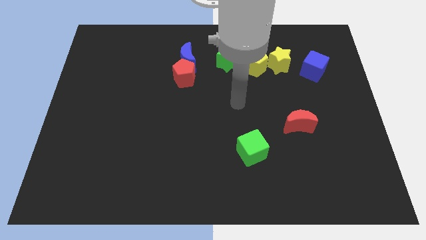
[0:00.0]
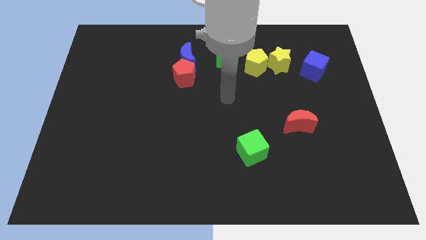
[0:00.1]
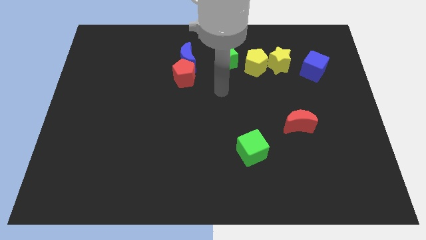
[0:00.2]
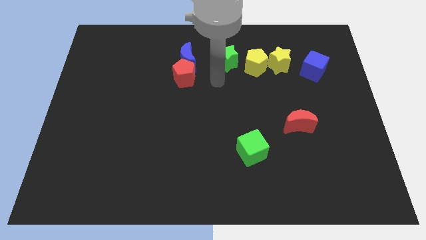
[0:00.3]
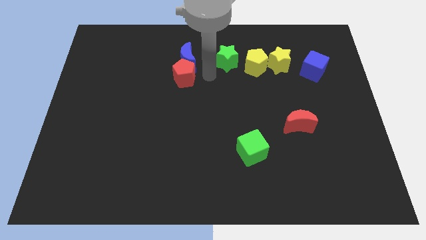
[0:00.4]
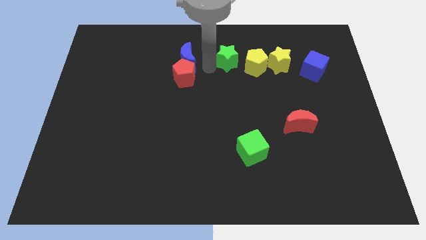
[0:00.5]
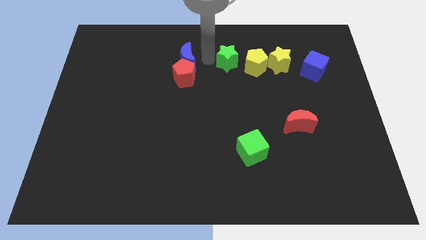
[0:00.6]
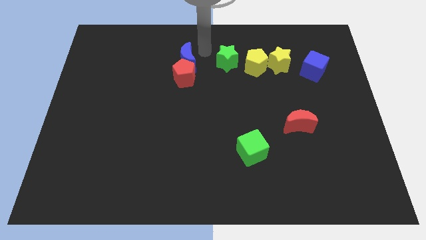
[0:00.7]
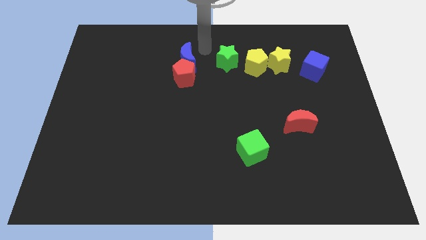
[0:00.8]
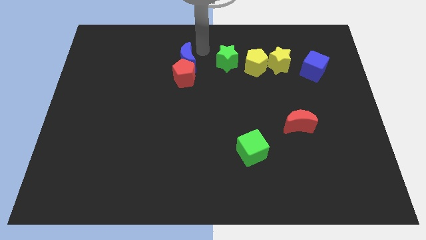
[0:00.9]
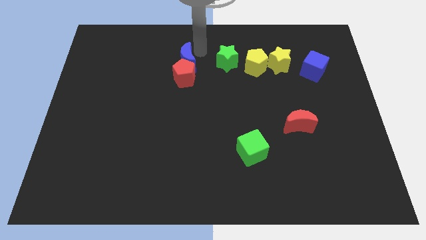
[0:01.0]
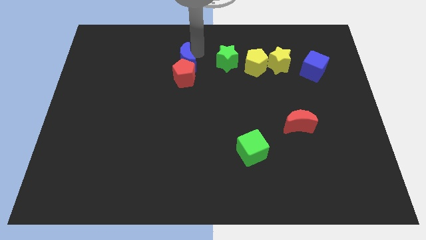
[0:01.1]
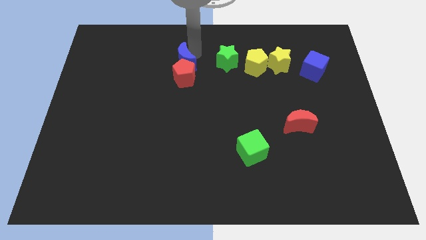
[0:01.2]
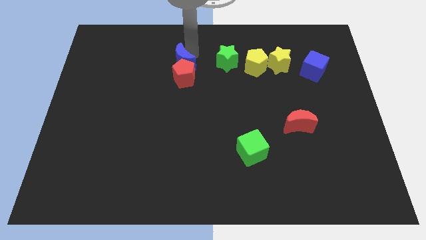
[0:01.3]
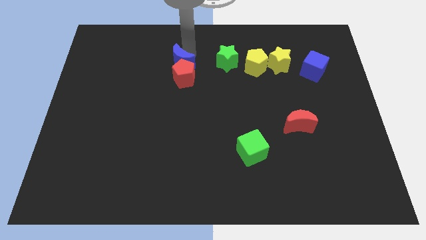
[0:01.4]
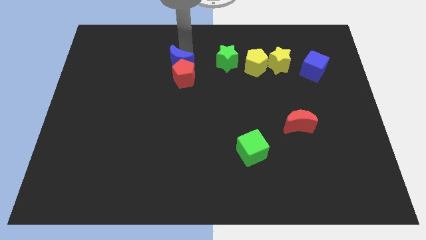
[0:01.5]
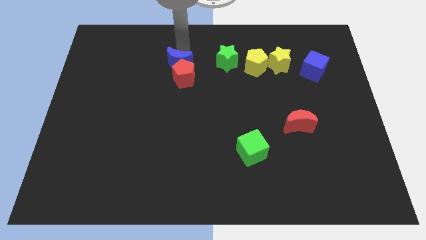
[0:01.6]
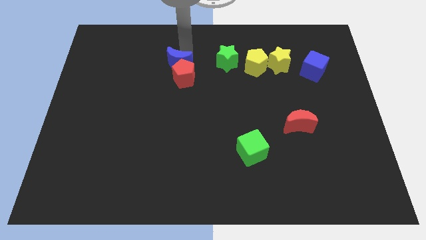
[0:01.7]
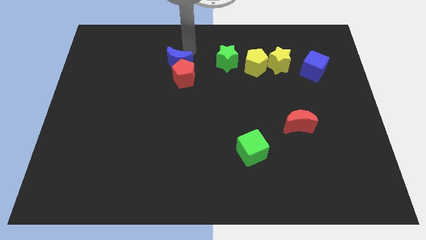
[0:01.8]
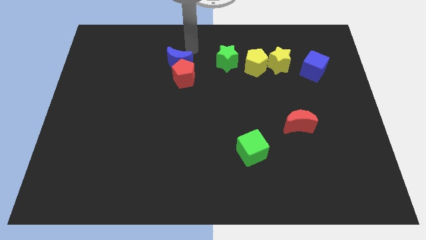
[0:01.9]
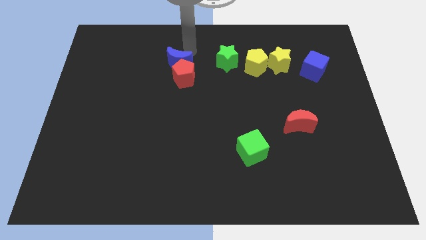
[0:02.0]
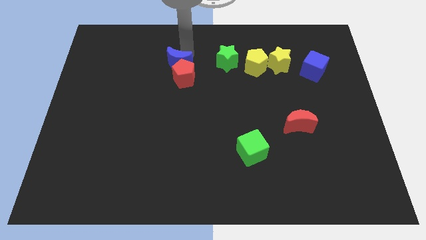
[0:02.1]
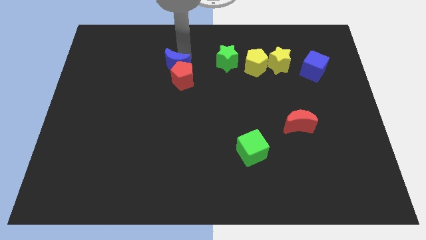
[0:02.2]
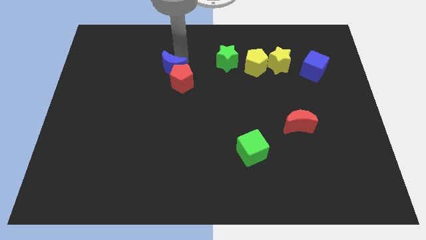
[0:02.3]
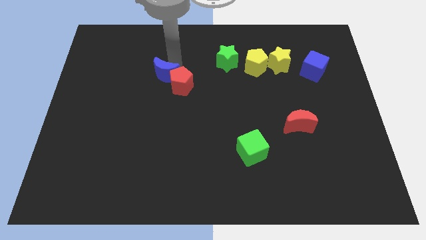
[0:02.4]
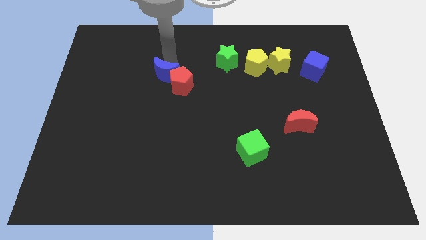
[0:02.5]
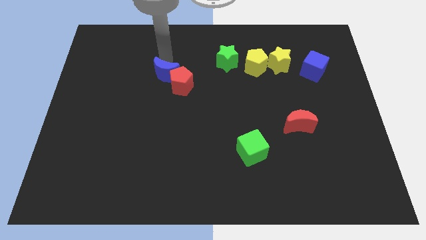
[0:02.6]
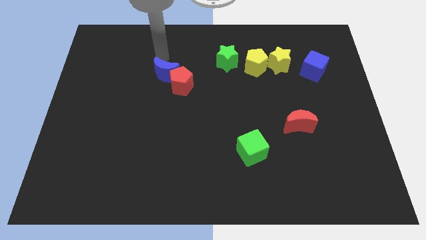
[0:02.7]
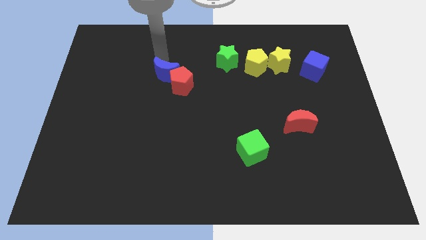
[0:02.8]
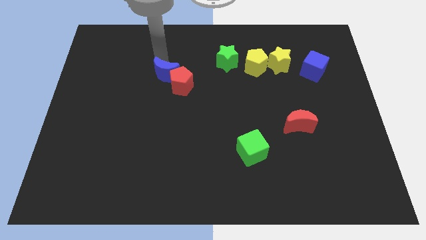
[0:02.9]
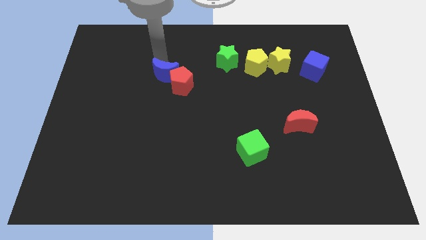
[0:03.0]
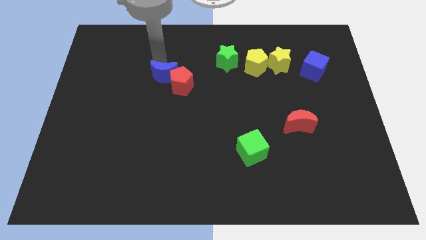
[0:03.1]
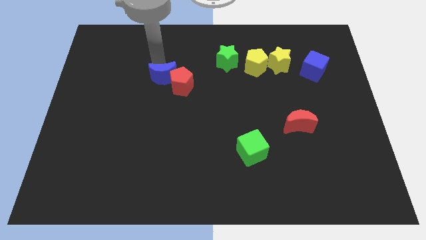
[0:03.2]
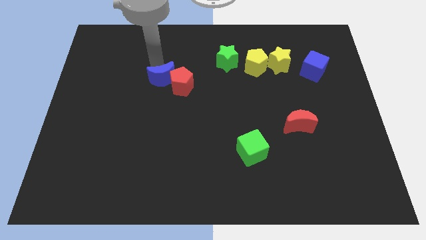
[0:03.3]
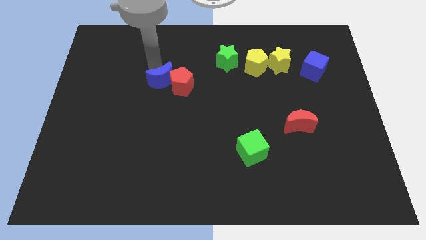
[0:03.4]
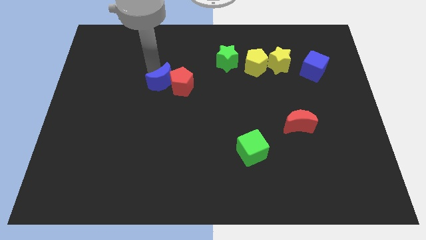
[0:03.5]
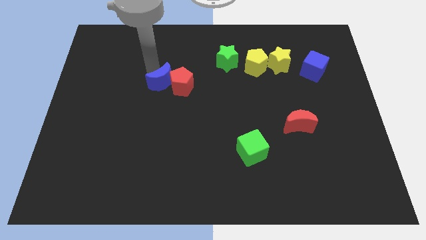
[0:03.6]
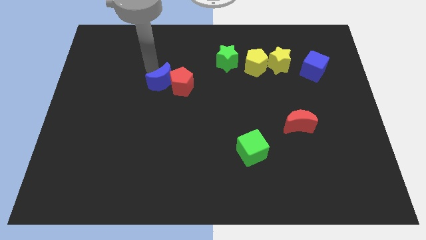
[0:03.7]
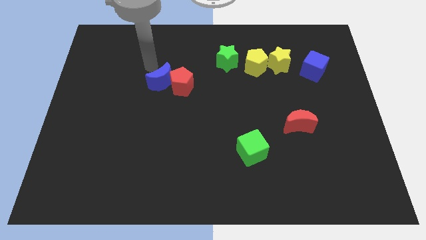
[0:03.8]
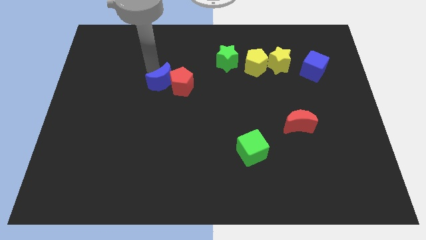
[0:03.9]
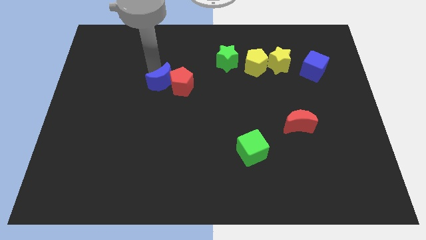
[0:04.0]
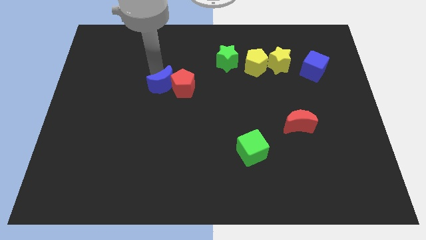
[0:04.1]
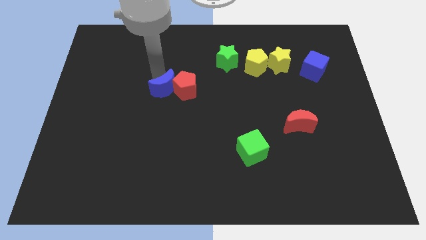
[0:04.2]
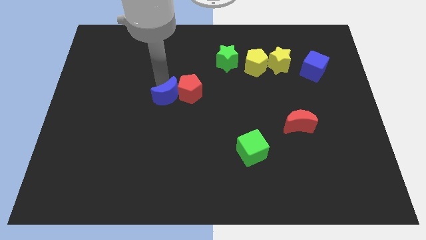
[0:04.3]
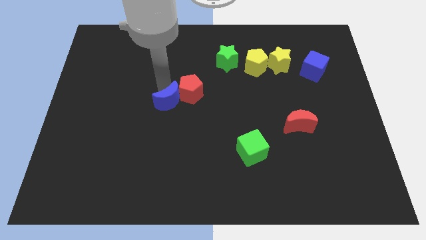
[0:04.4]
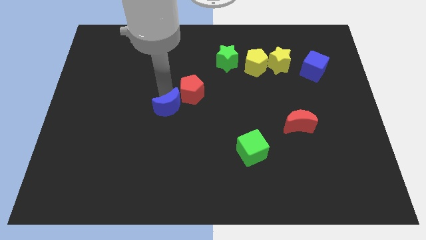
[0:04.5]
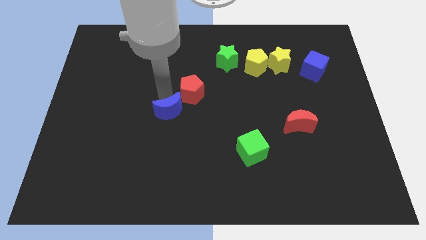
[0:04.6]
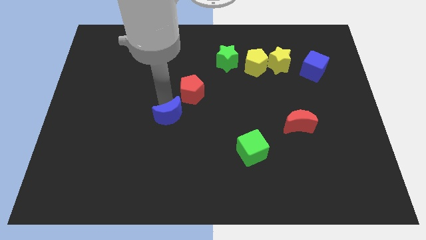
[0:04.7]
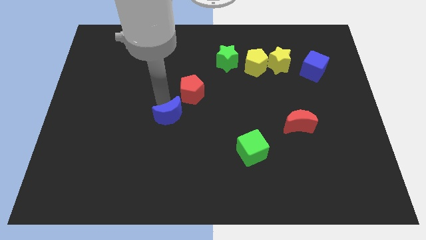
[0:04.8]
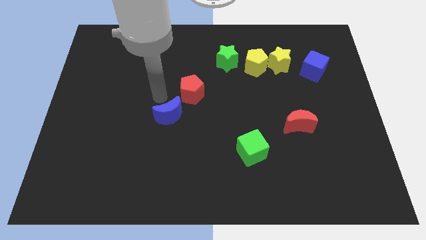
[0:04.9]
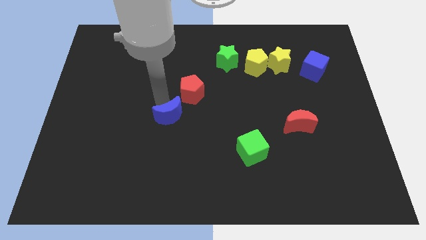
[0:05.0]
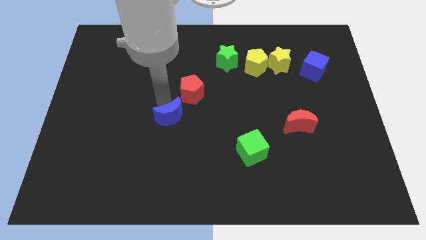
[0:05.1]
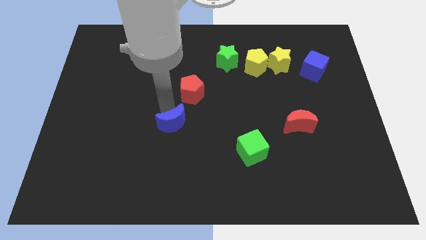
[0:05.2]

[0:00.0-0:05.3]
push the blue moon down

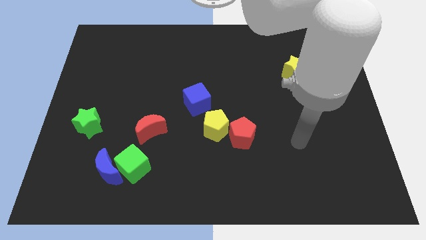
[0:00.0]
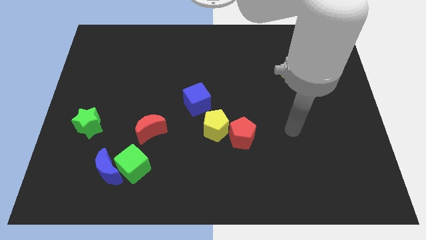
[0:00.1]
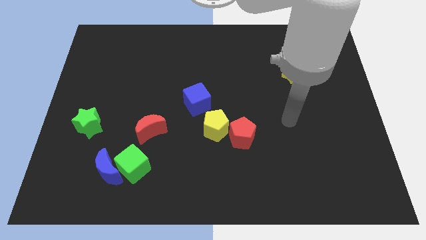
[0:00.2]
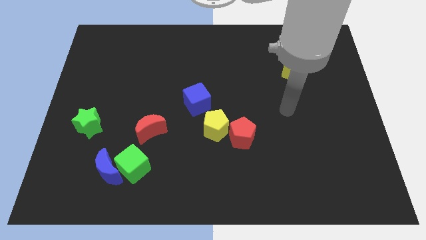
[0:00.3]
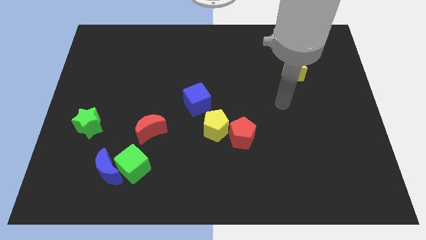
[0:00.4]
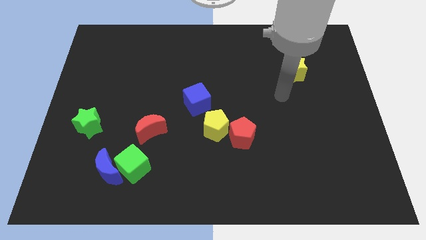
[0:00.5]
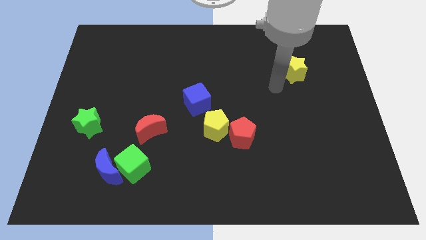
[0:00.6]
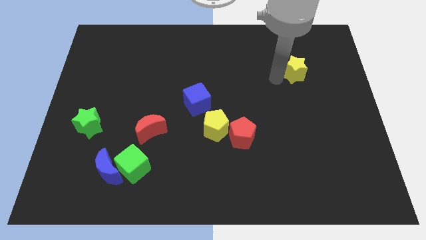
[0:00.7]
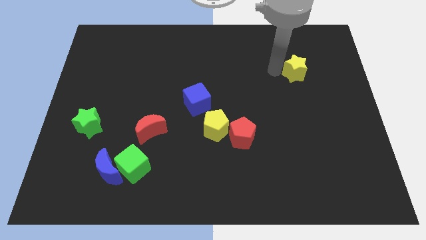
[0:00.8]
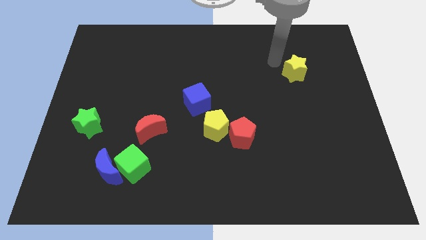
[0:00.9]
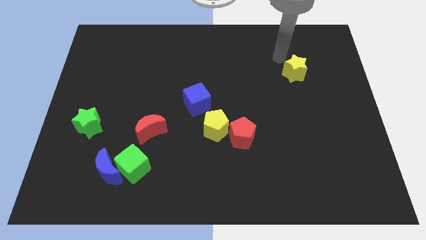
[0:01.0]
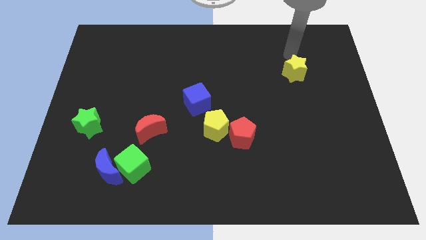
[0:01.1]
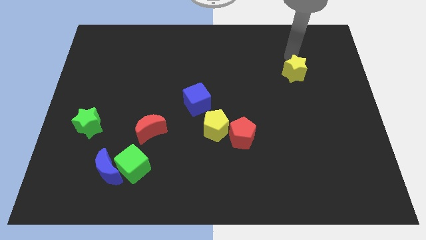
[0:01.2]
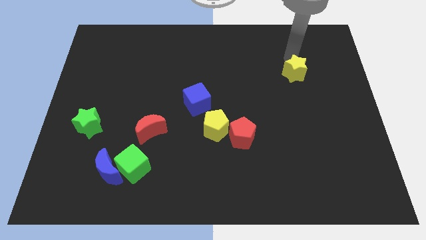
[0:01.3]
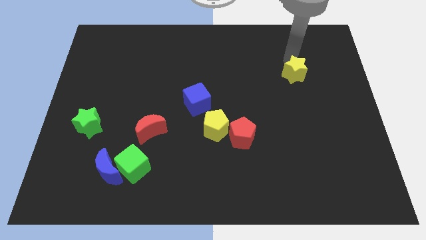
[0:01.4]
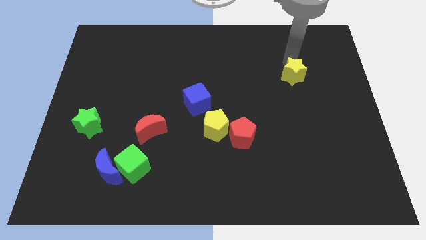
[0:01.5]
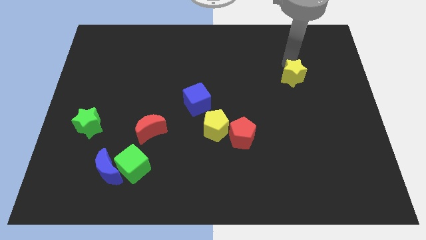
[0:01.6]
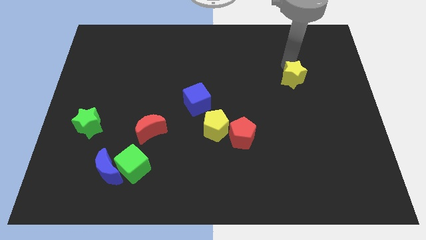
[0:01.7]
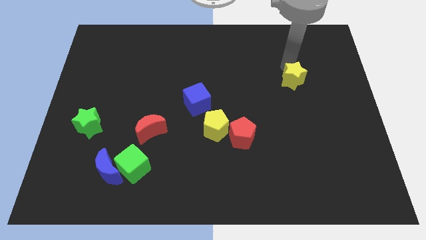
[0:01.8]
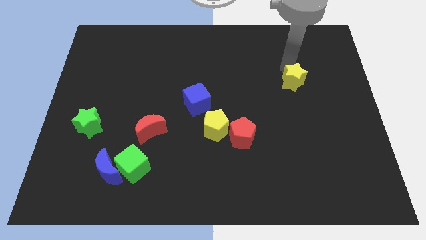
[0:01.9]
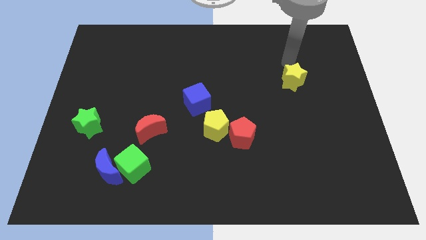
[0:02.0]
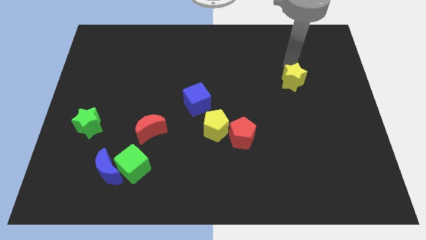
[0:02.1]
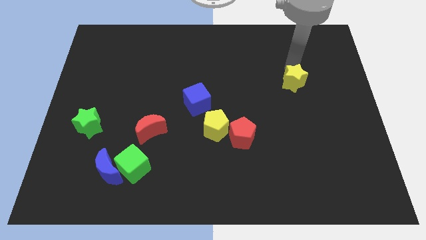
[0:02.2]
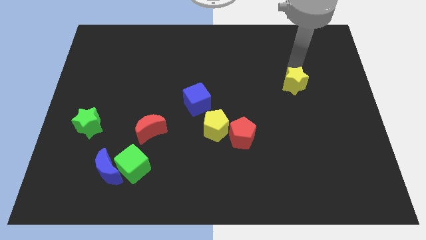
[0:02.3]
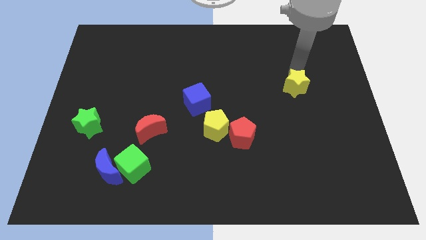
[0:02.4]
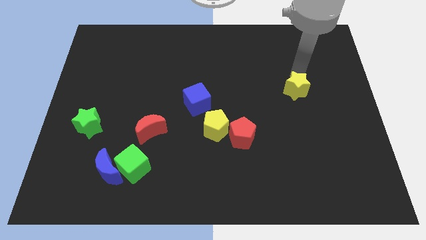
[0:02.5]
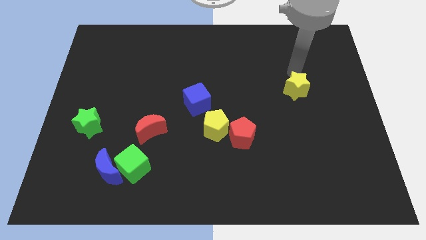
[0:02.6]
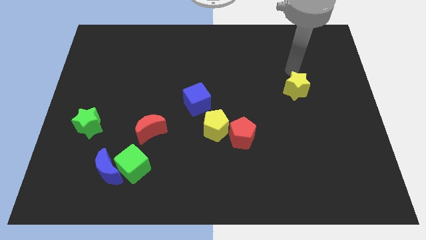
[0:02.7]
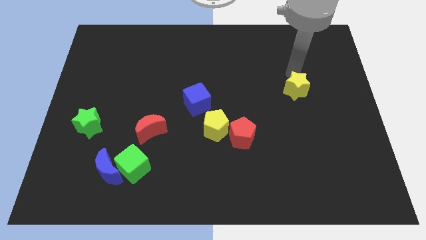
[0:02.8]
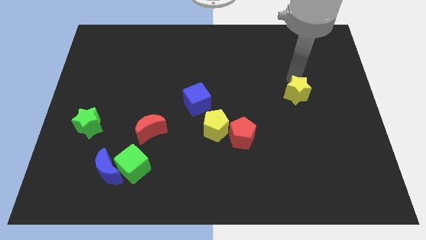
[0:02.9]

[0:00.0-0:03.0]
slightly move the yellow star downwards
